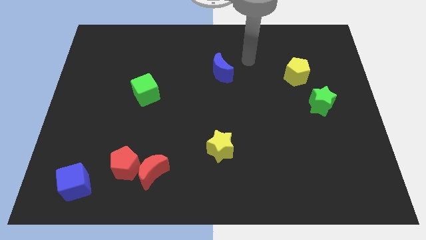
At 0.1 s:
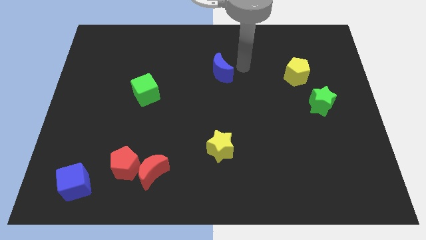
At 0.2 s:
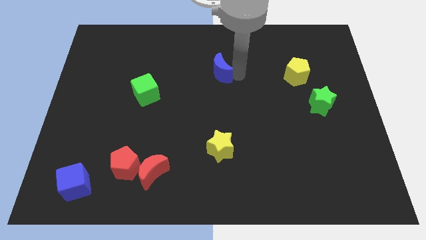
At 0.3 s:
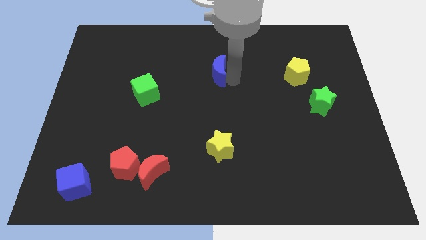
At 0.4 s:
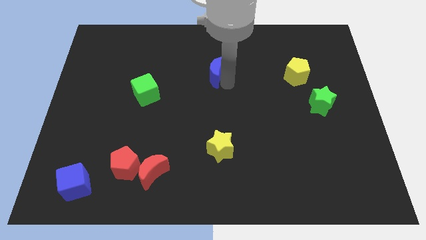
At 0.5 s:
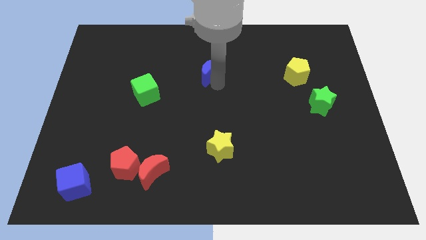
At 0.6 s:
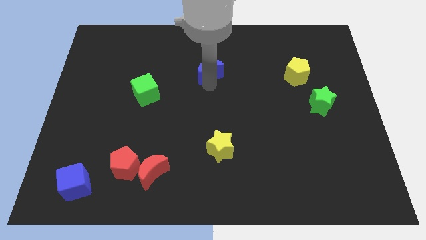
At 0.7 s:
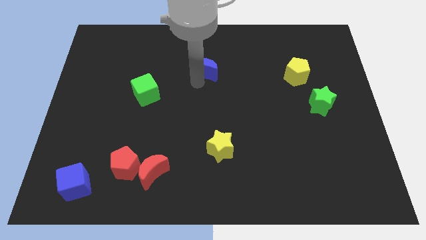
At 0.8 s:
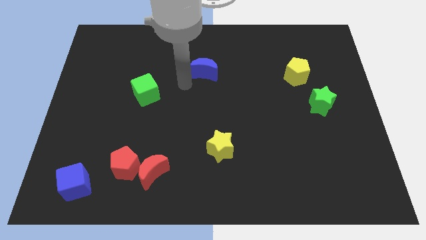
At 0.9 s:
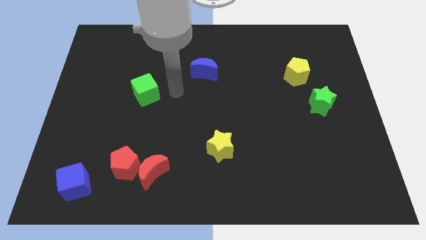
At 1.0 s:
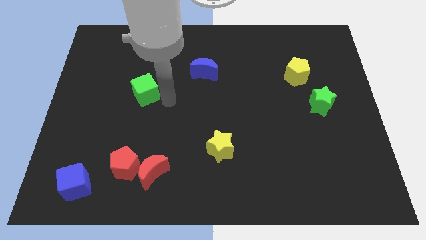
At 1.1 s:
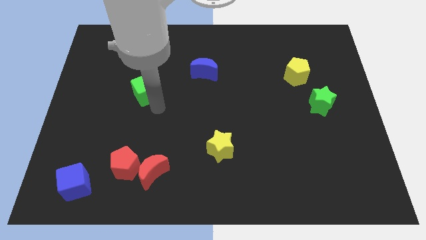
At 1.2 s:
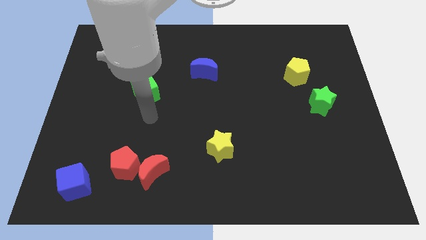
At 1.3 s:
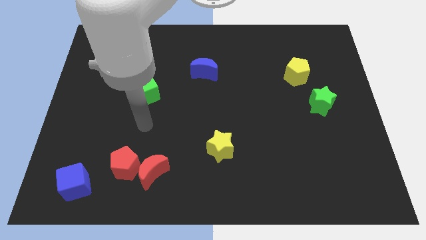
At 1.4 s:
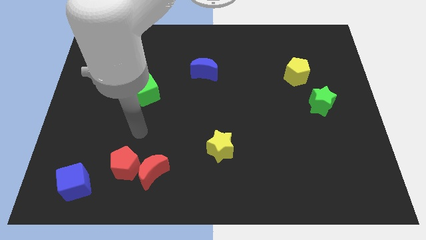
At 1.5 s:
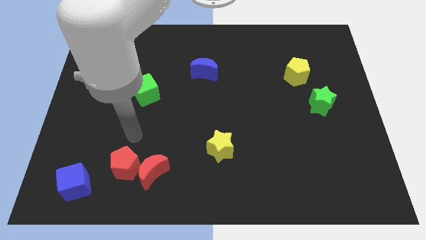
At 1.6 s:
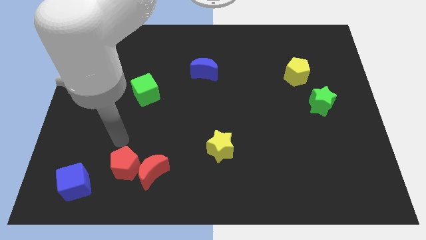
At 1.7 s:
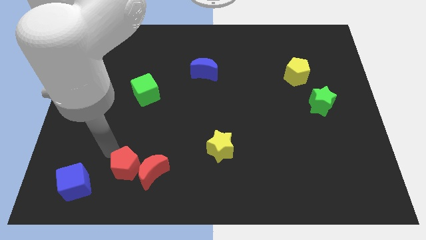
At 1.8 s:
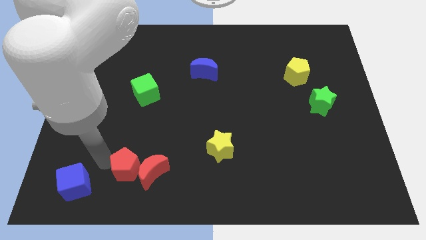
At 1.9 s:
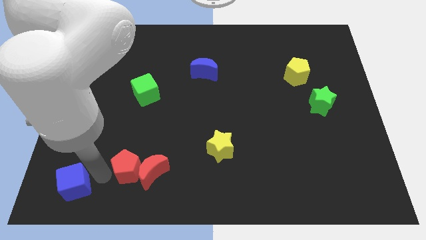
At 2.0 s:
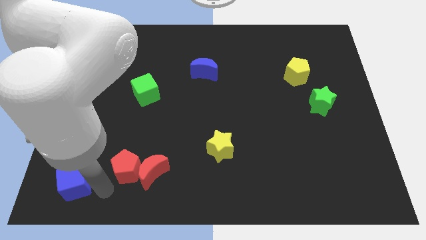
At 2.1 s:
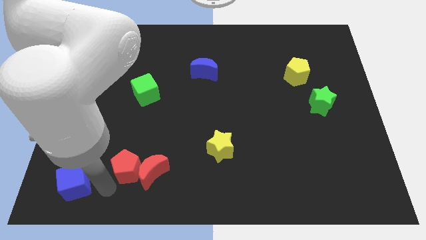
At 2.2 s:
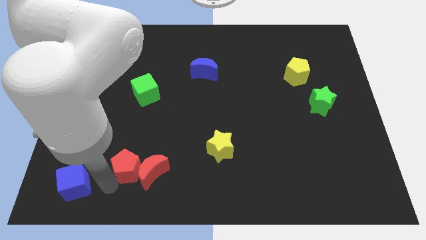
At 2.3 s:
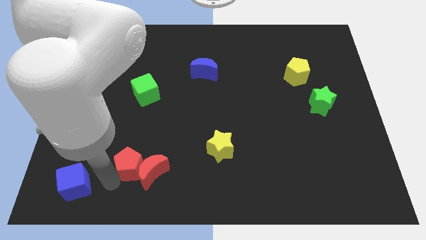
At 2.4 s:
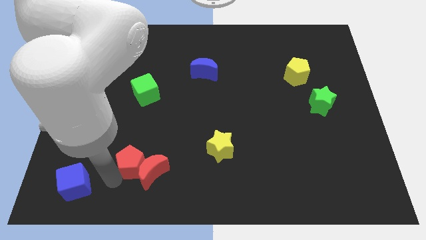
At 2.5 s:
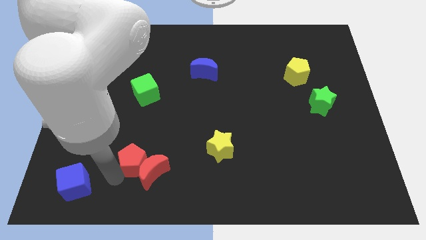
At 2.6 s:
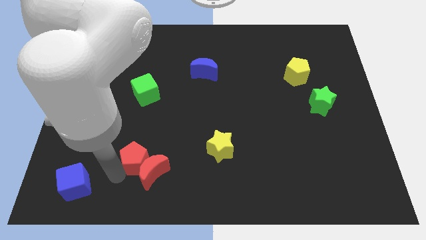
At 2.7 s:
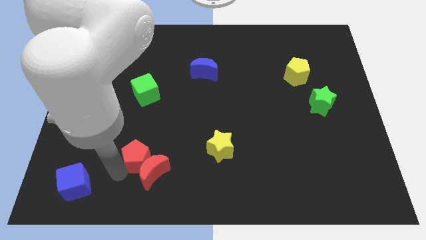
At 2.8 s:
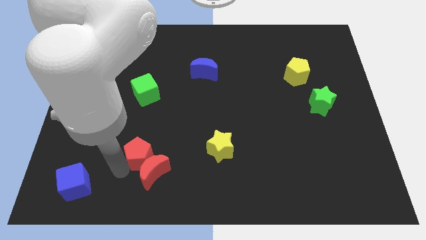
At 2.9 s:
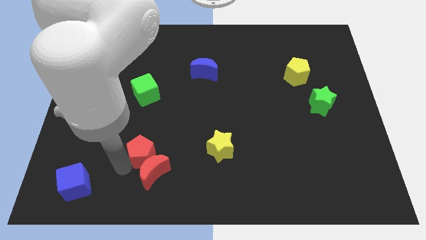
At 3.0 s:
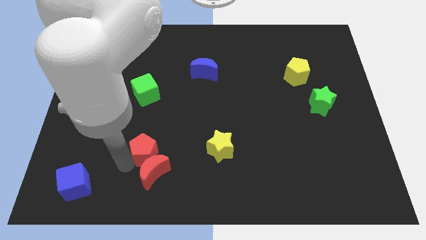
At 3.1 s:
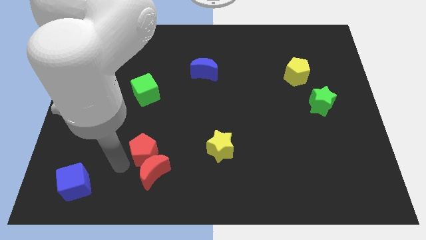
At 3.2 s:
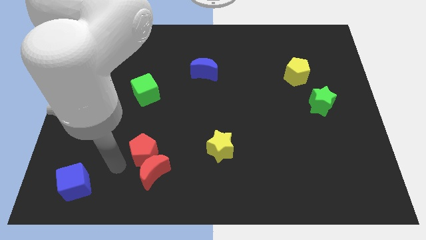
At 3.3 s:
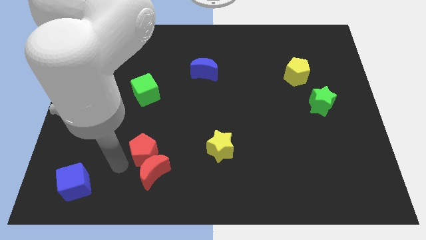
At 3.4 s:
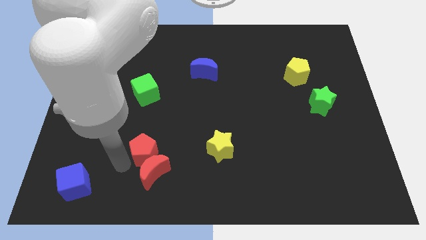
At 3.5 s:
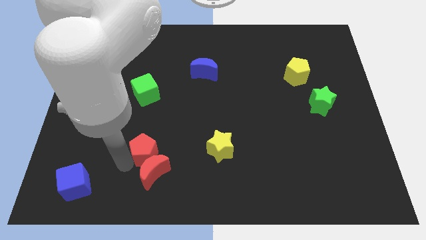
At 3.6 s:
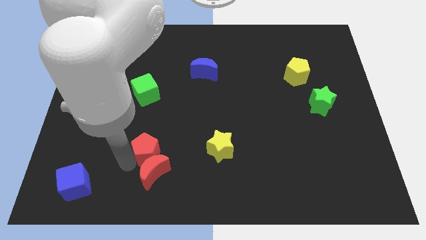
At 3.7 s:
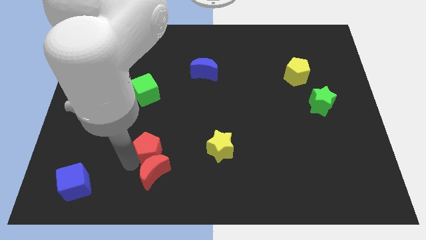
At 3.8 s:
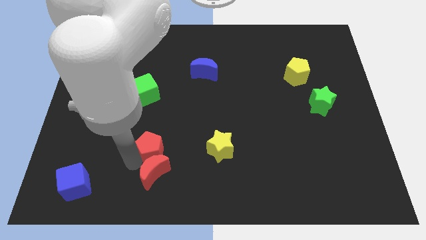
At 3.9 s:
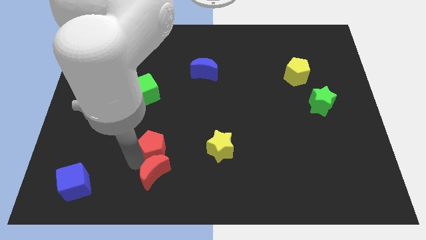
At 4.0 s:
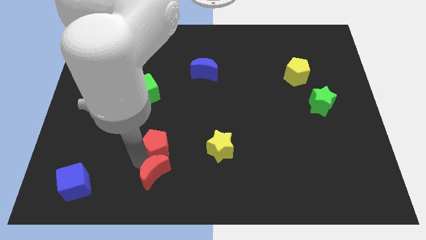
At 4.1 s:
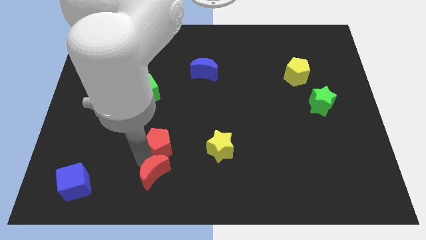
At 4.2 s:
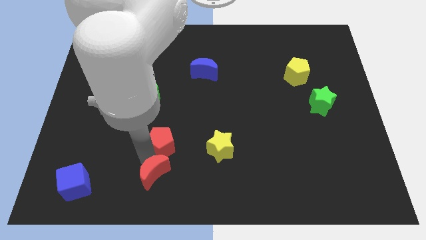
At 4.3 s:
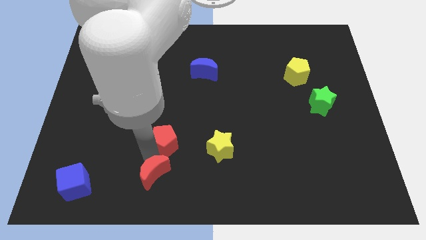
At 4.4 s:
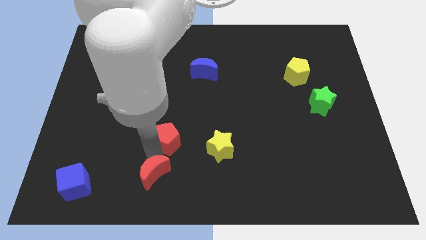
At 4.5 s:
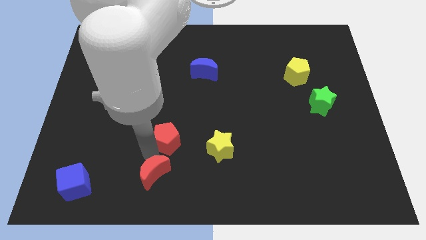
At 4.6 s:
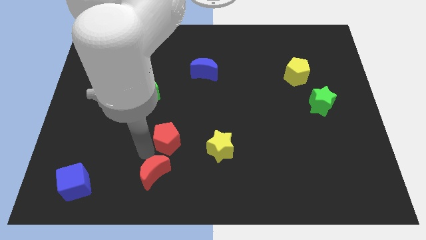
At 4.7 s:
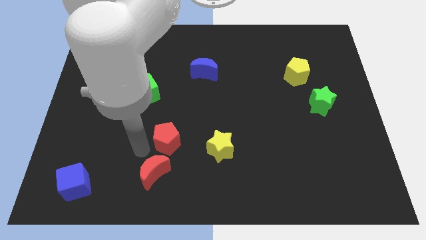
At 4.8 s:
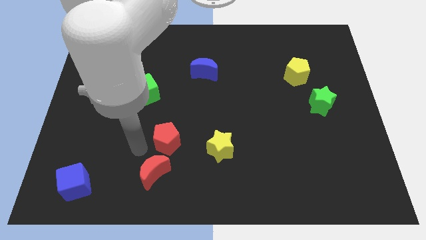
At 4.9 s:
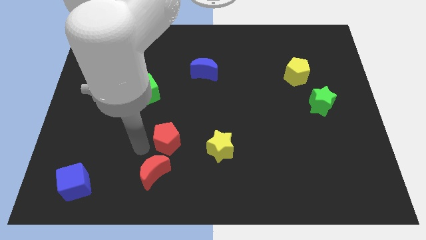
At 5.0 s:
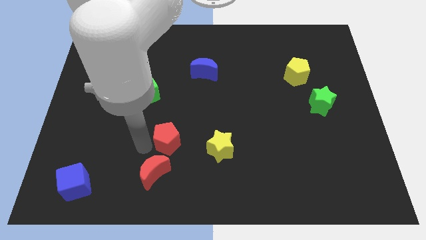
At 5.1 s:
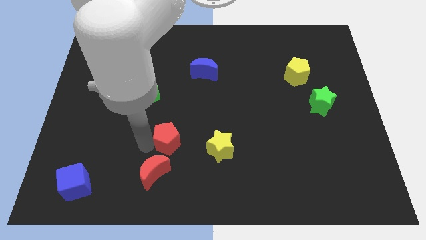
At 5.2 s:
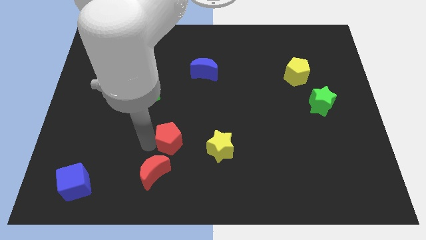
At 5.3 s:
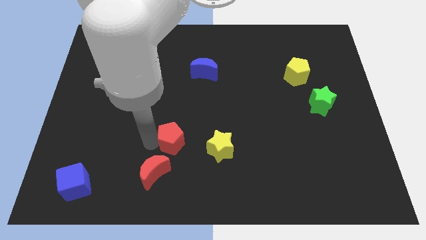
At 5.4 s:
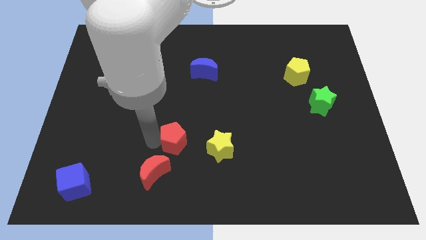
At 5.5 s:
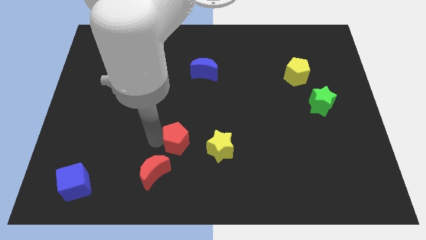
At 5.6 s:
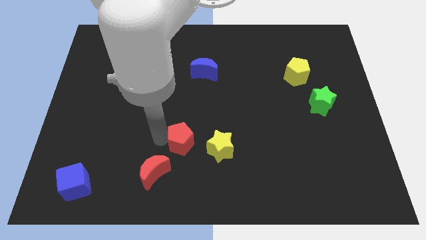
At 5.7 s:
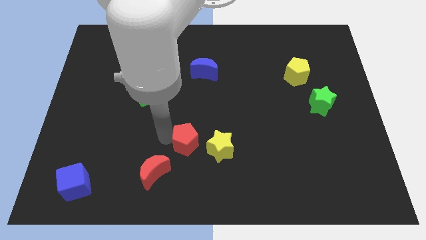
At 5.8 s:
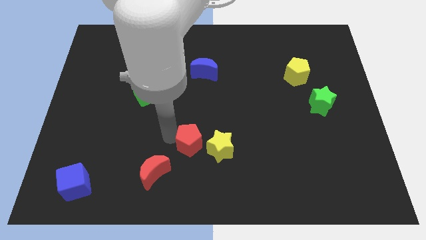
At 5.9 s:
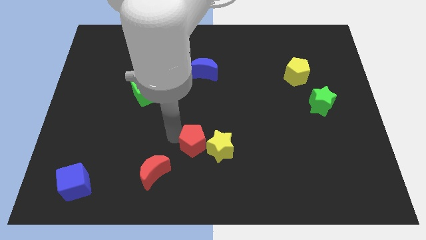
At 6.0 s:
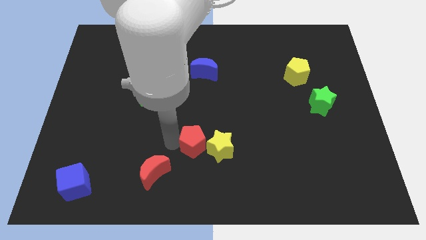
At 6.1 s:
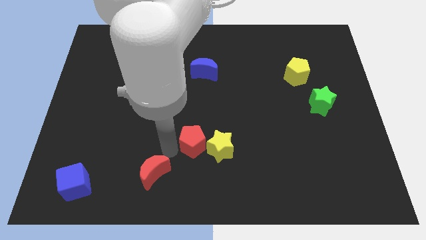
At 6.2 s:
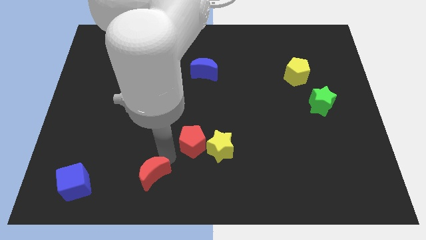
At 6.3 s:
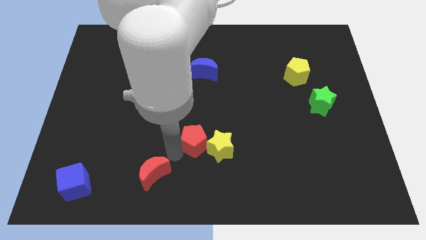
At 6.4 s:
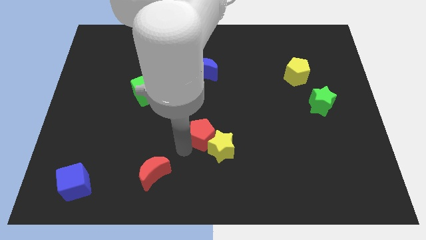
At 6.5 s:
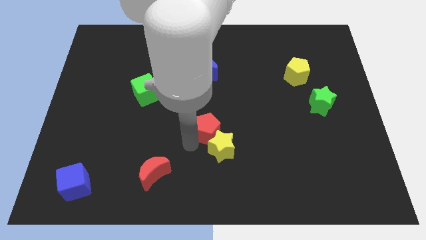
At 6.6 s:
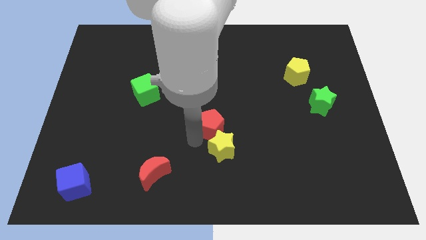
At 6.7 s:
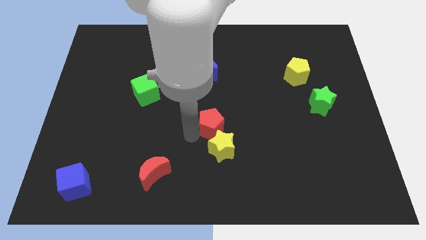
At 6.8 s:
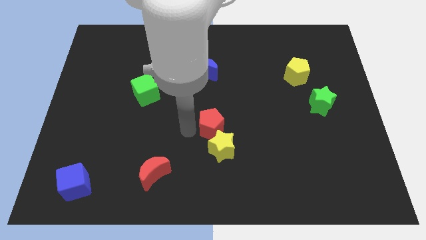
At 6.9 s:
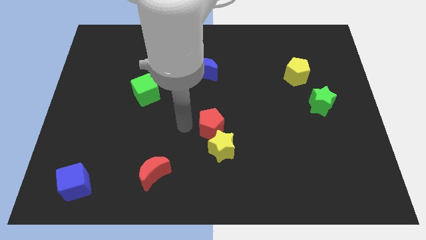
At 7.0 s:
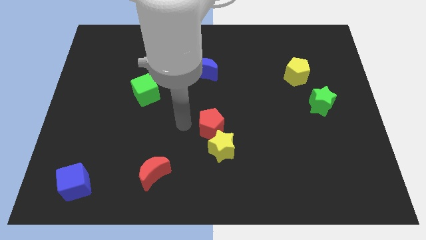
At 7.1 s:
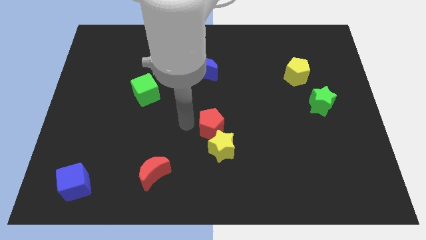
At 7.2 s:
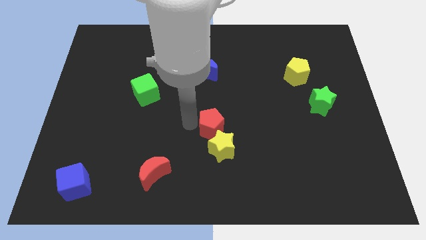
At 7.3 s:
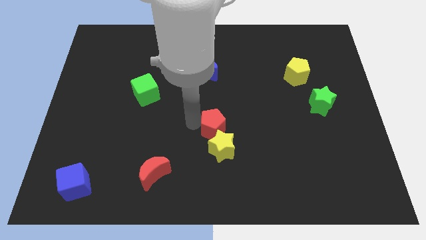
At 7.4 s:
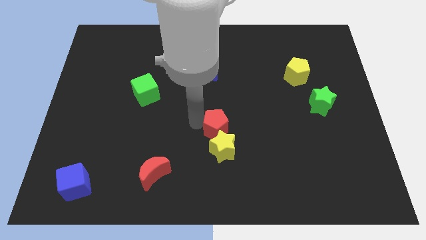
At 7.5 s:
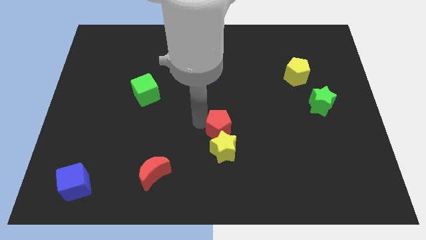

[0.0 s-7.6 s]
move the red pentagon diagonally up and to the right of the yellow star
